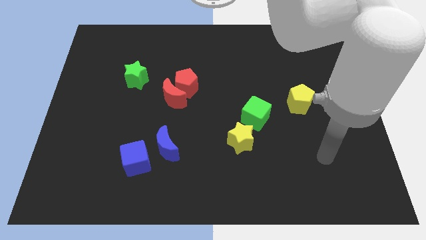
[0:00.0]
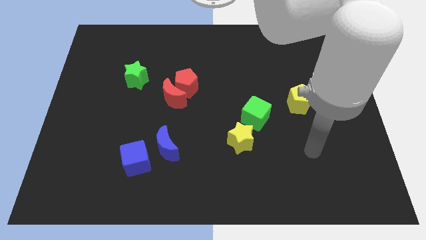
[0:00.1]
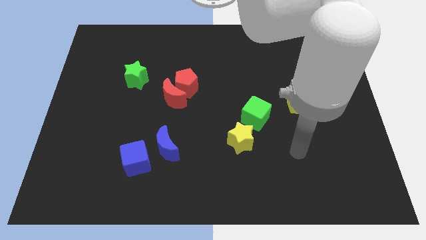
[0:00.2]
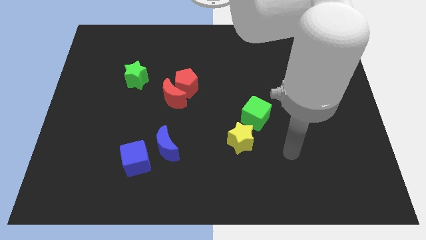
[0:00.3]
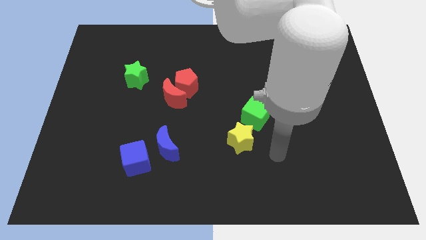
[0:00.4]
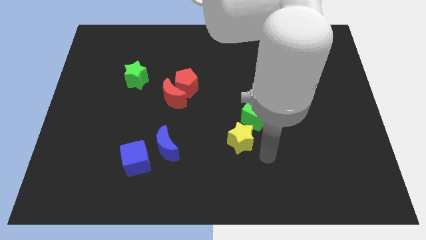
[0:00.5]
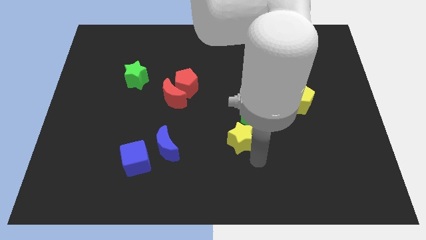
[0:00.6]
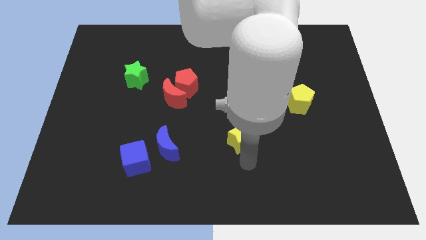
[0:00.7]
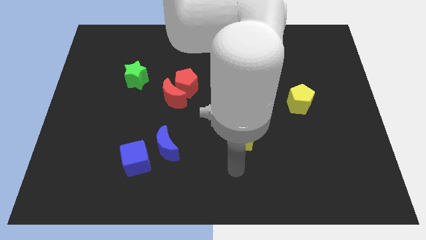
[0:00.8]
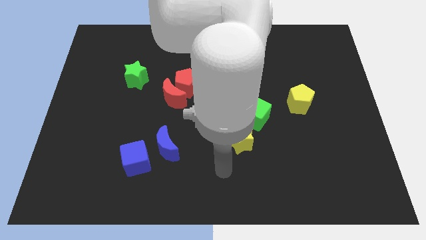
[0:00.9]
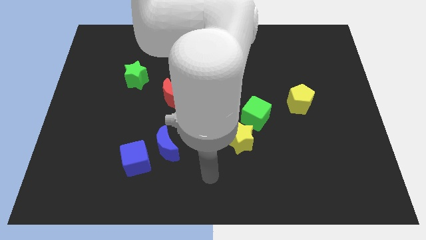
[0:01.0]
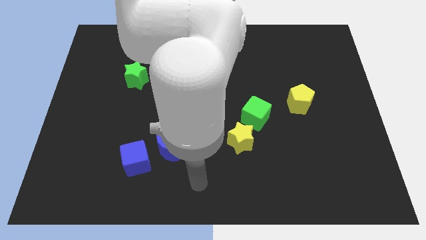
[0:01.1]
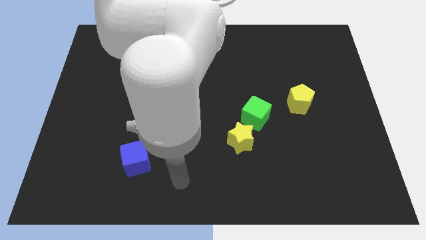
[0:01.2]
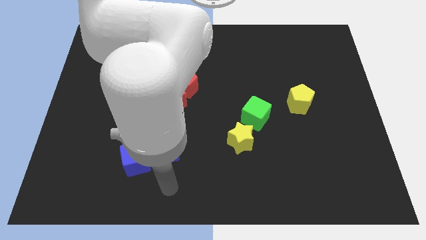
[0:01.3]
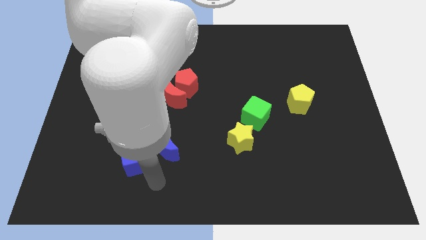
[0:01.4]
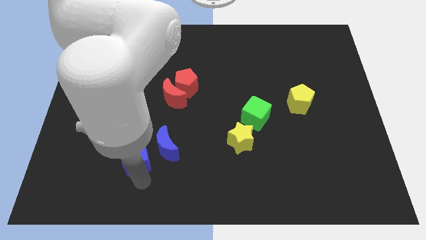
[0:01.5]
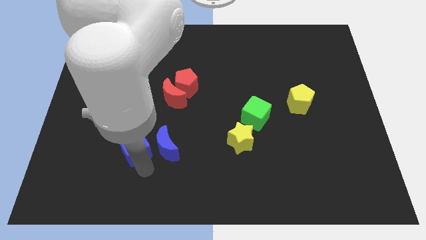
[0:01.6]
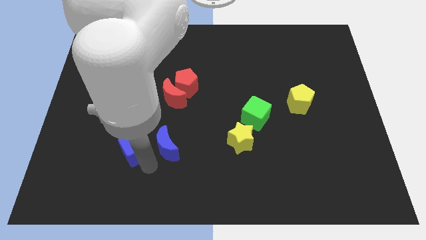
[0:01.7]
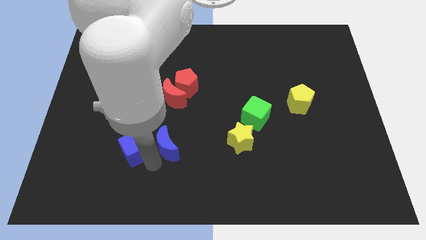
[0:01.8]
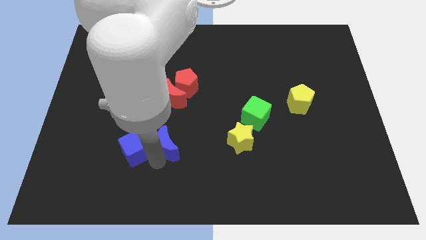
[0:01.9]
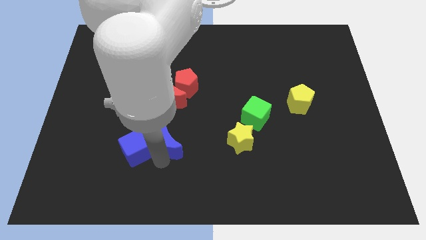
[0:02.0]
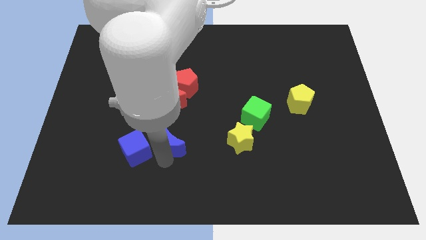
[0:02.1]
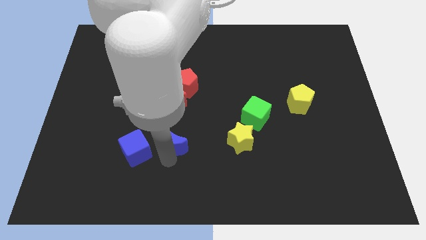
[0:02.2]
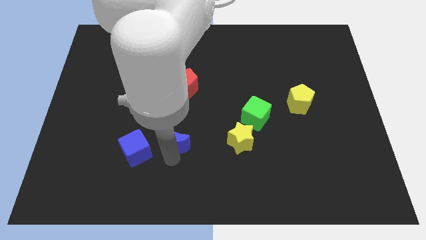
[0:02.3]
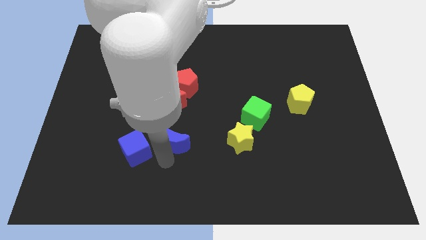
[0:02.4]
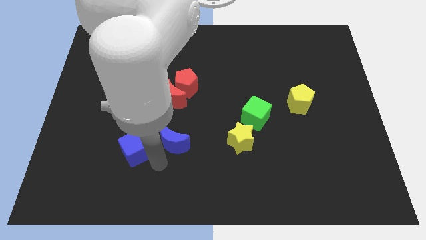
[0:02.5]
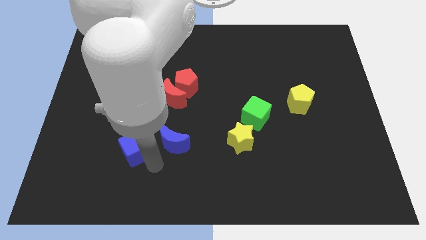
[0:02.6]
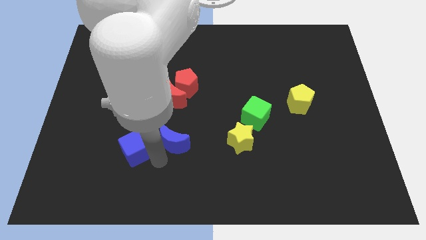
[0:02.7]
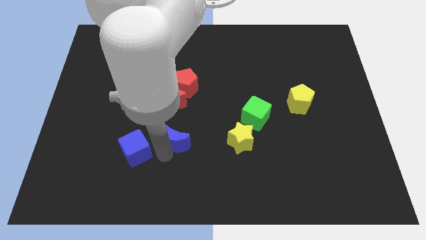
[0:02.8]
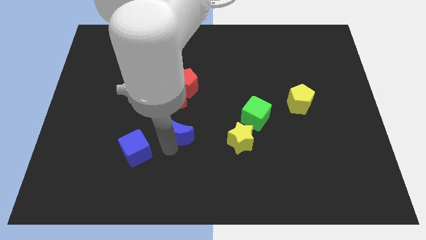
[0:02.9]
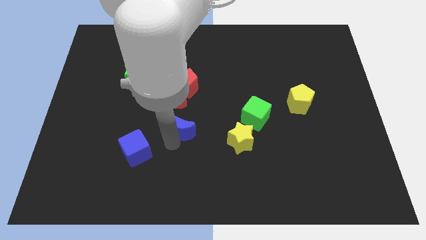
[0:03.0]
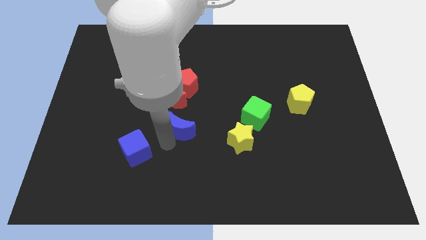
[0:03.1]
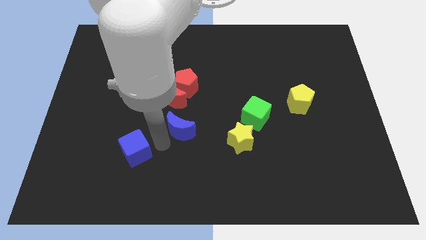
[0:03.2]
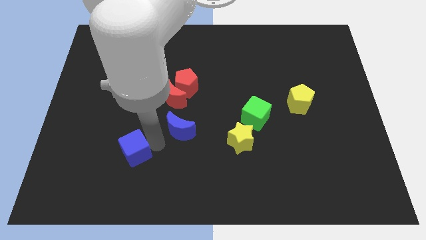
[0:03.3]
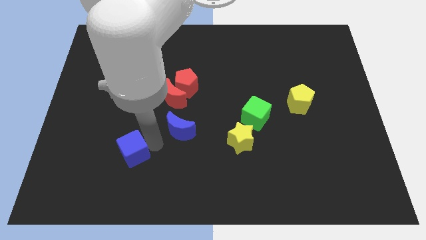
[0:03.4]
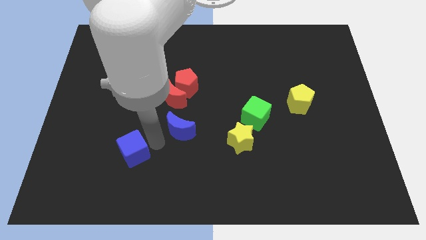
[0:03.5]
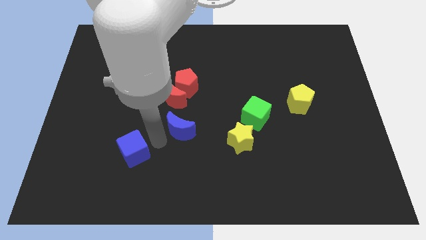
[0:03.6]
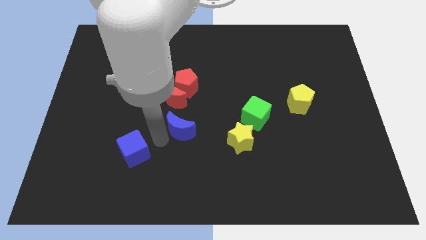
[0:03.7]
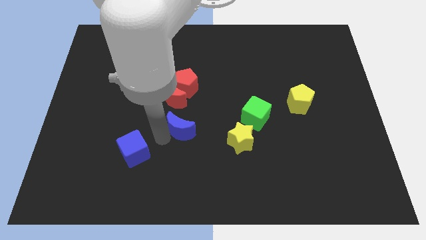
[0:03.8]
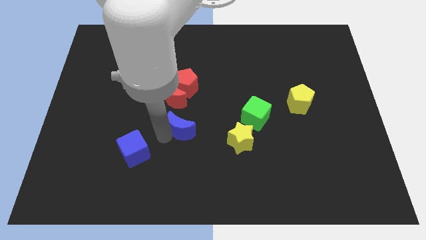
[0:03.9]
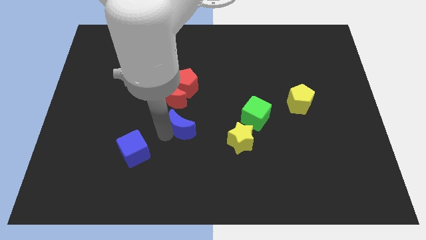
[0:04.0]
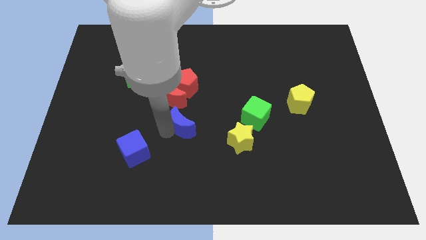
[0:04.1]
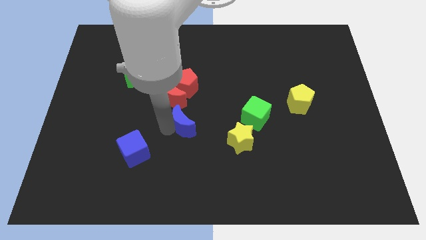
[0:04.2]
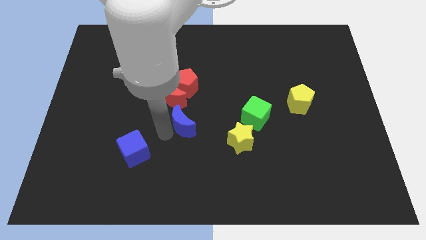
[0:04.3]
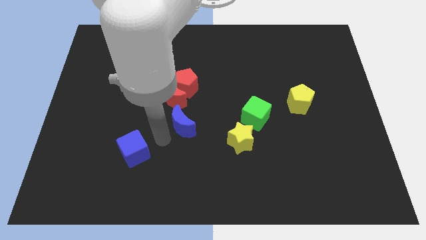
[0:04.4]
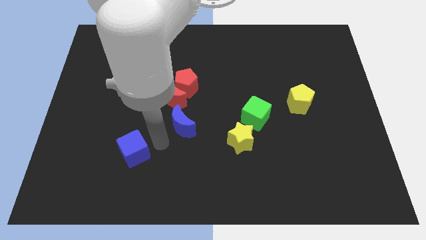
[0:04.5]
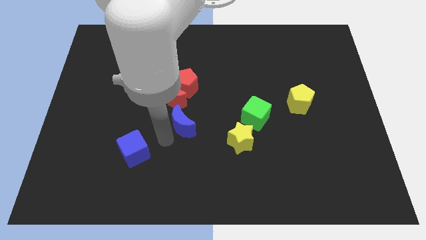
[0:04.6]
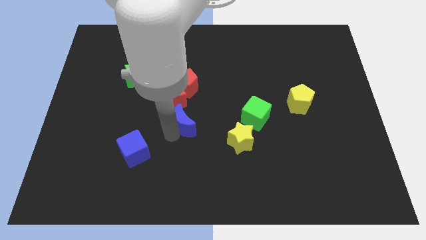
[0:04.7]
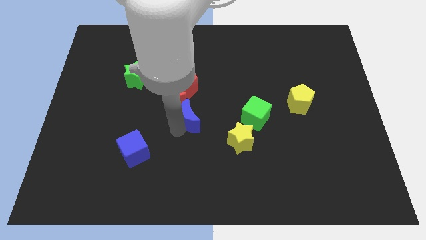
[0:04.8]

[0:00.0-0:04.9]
push the blue moon slightly up and to the right

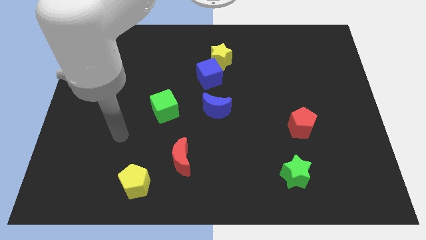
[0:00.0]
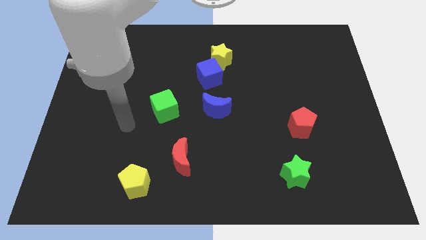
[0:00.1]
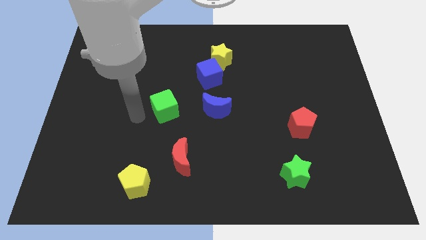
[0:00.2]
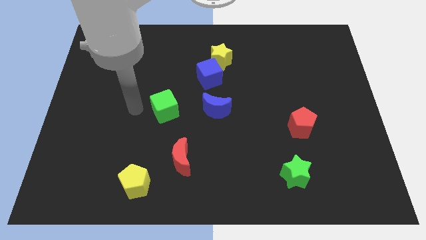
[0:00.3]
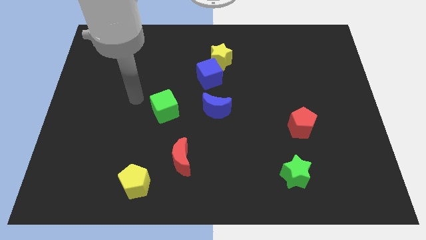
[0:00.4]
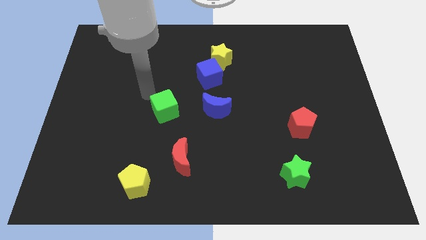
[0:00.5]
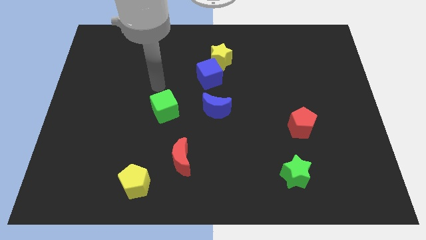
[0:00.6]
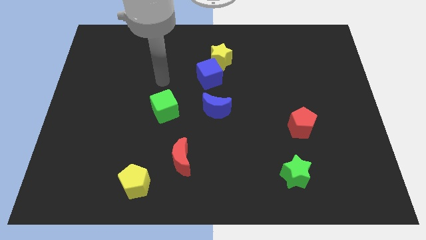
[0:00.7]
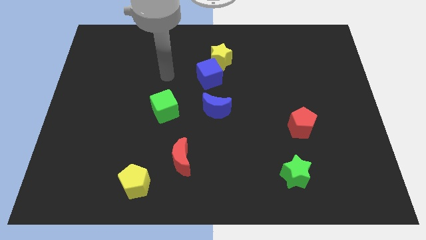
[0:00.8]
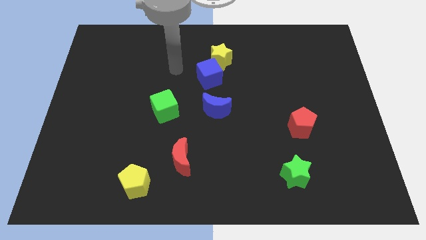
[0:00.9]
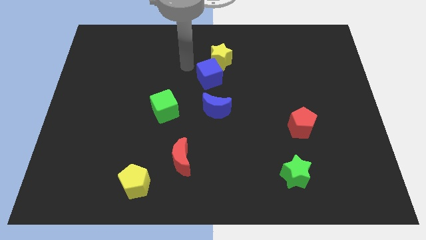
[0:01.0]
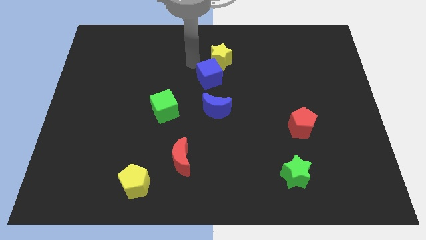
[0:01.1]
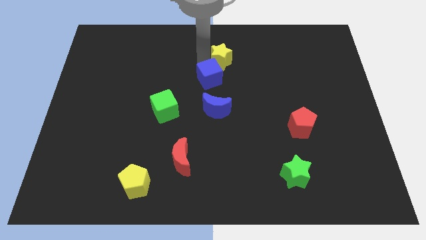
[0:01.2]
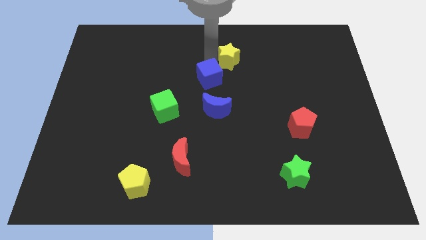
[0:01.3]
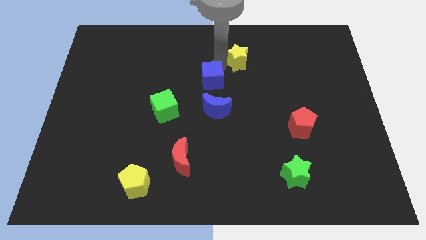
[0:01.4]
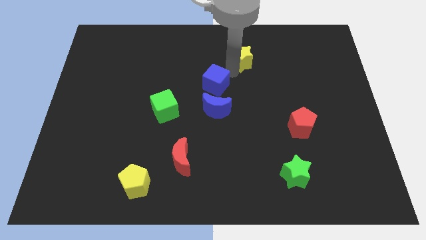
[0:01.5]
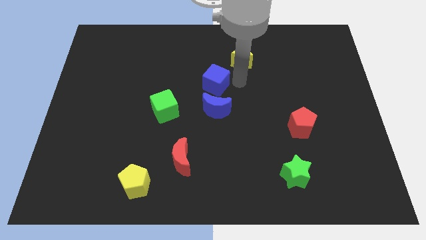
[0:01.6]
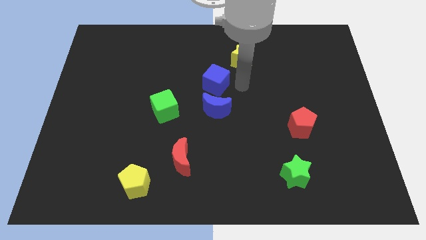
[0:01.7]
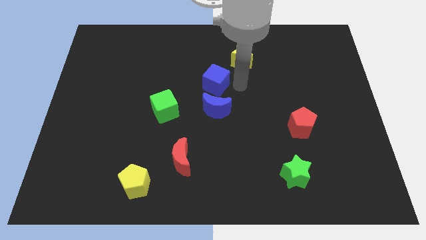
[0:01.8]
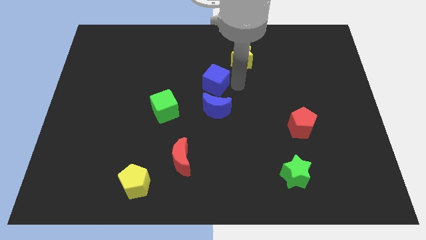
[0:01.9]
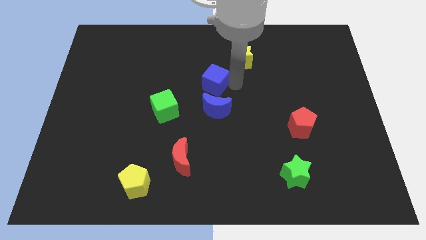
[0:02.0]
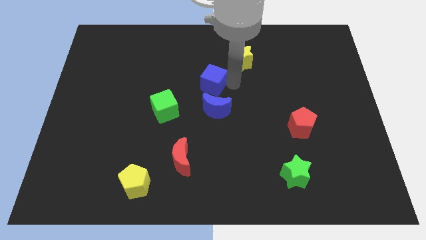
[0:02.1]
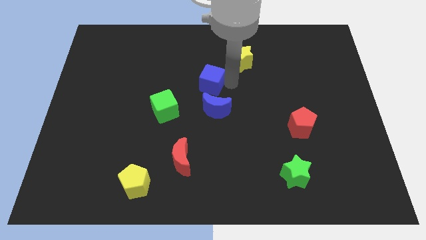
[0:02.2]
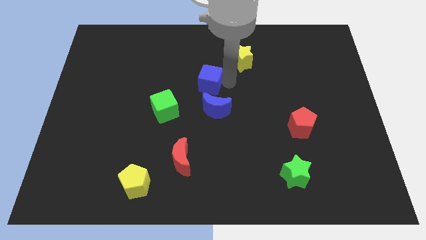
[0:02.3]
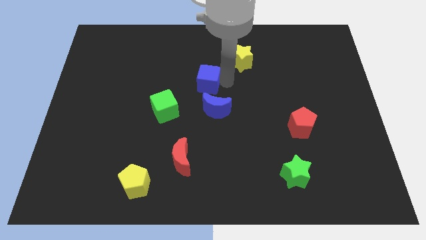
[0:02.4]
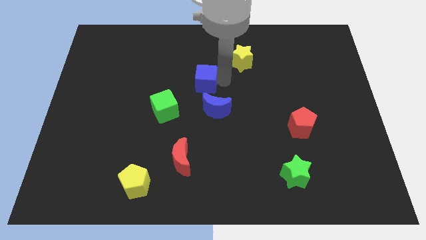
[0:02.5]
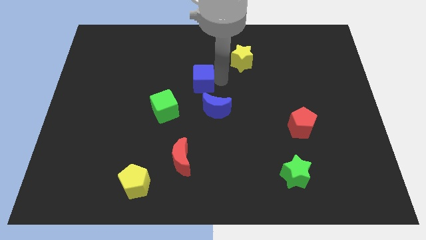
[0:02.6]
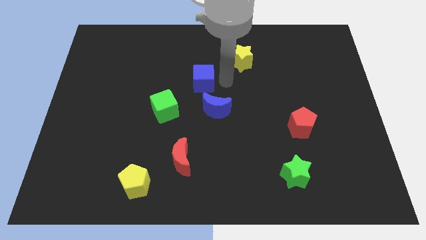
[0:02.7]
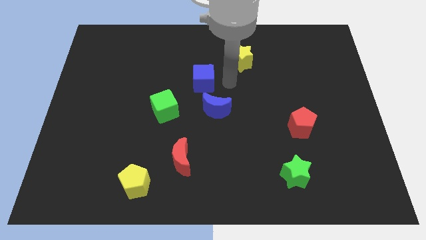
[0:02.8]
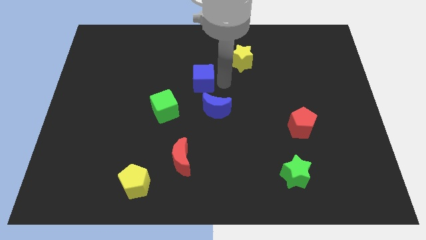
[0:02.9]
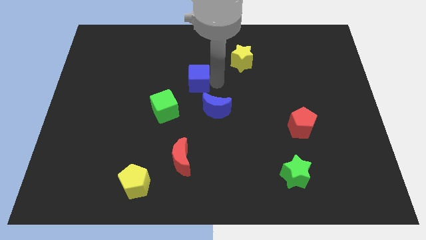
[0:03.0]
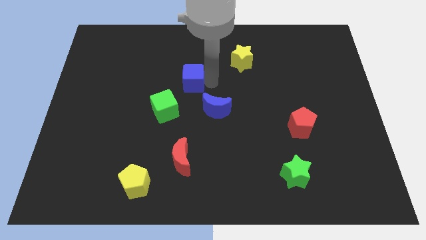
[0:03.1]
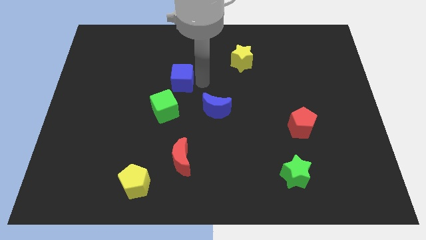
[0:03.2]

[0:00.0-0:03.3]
move the blue cube to the left slightly
